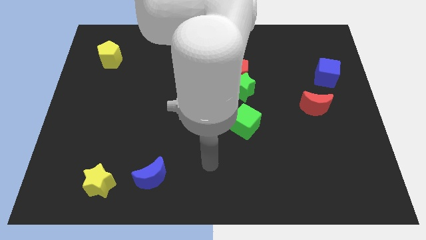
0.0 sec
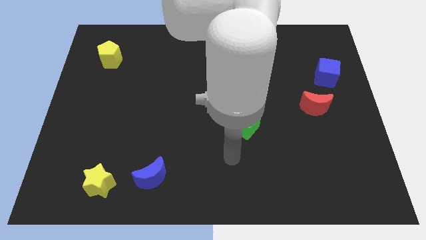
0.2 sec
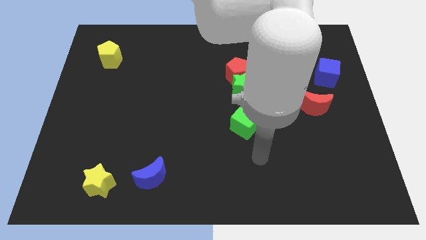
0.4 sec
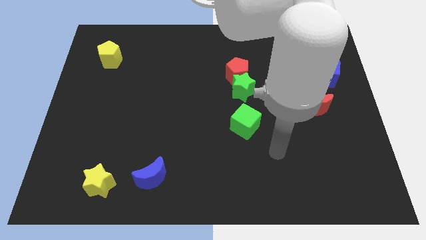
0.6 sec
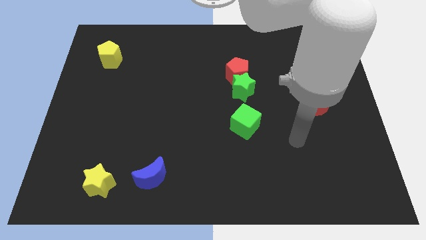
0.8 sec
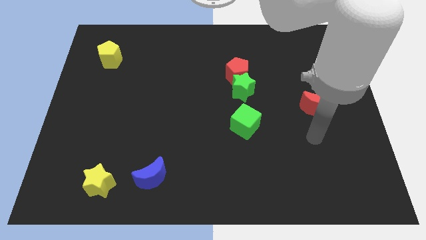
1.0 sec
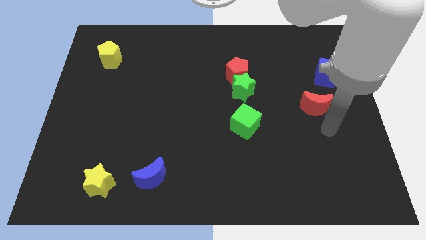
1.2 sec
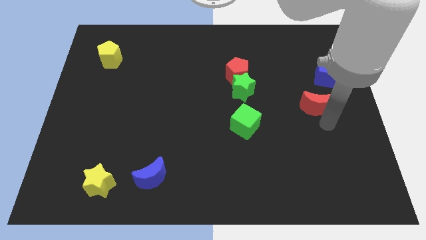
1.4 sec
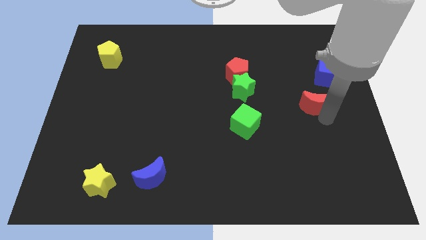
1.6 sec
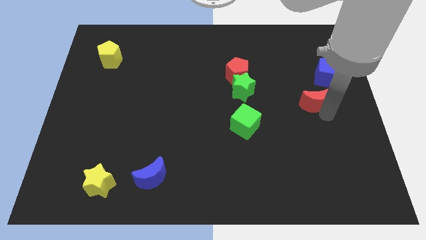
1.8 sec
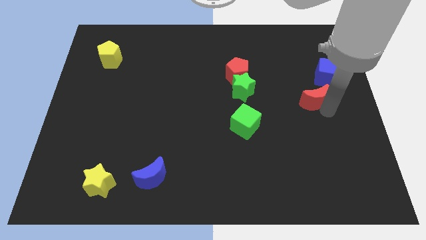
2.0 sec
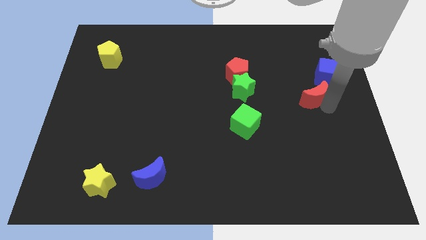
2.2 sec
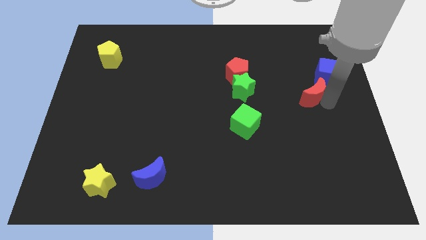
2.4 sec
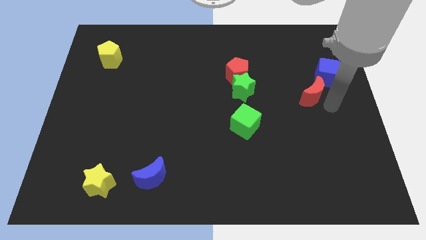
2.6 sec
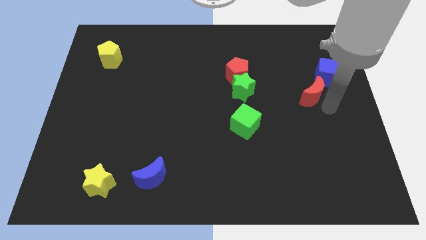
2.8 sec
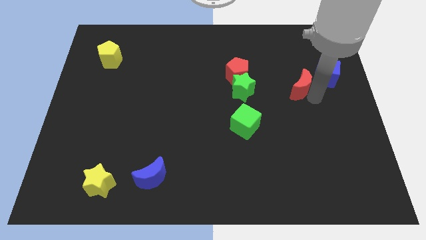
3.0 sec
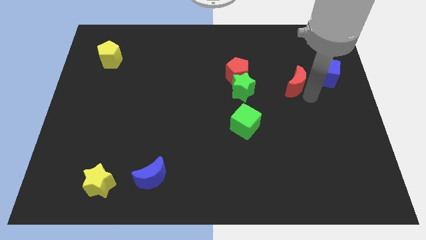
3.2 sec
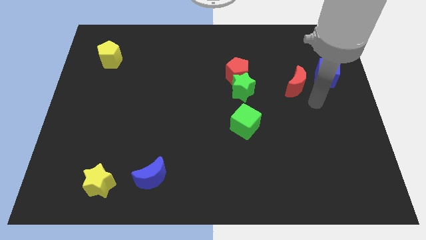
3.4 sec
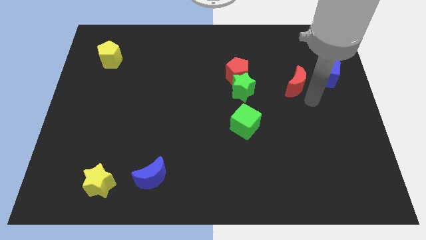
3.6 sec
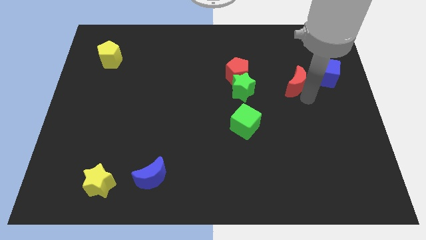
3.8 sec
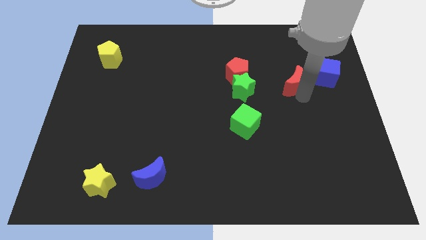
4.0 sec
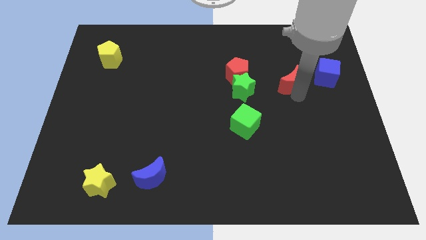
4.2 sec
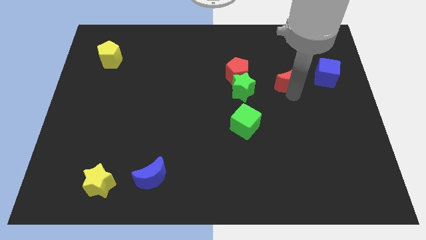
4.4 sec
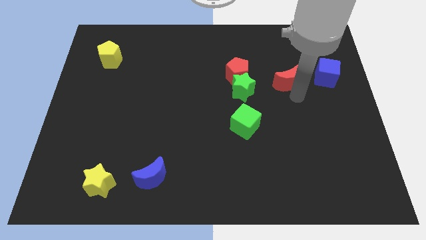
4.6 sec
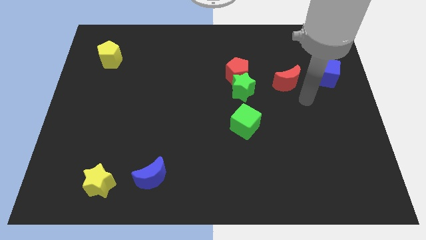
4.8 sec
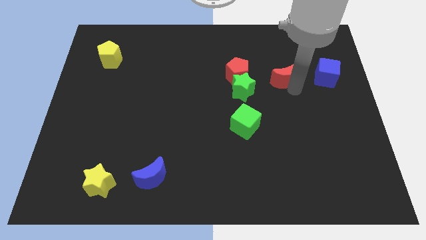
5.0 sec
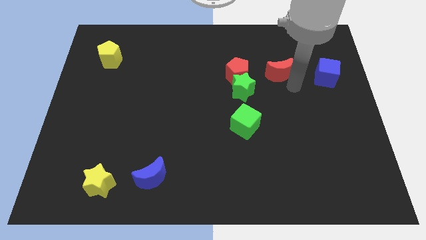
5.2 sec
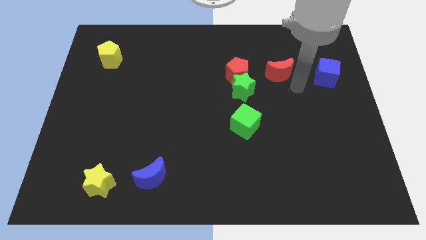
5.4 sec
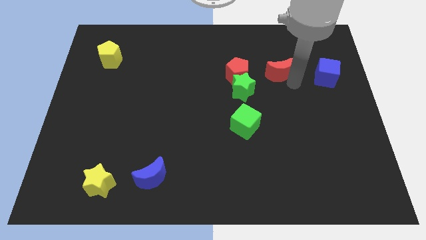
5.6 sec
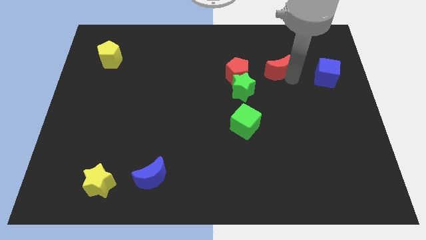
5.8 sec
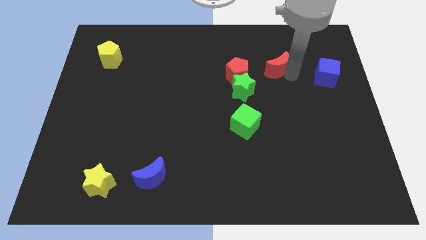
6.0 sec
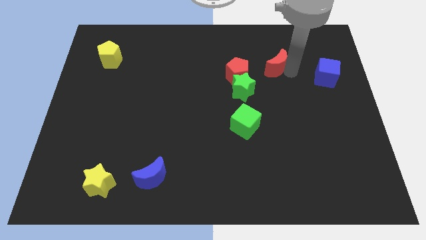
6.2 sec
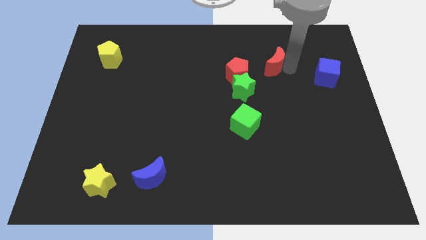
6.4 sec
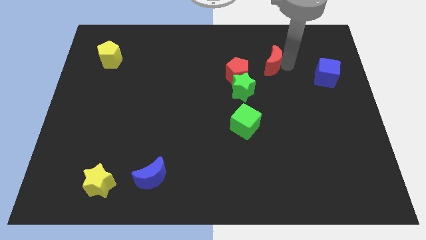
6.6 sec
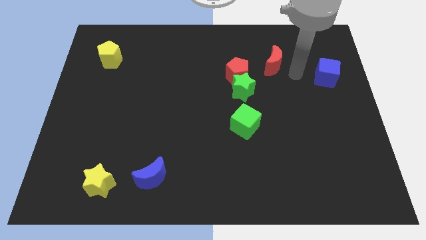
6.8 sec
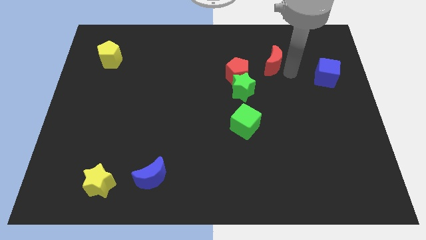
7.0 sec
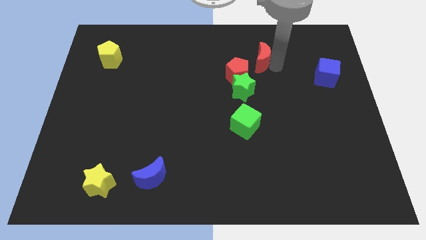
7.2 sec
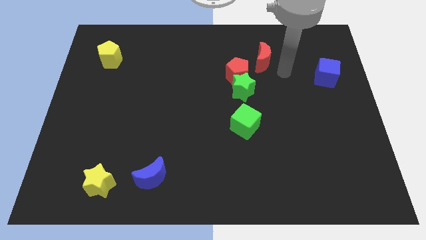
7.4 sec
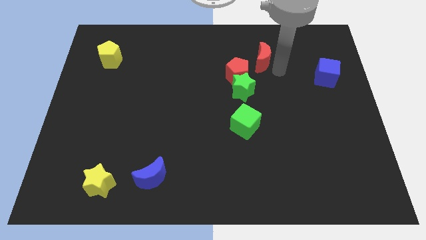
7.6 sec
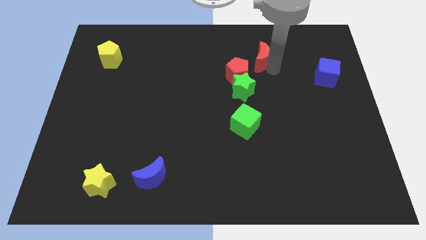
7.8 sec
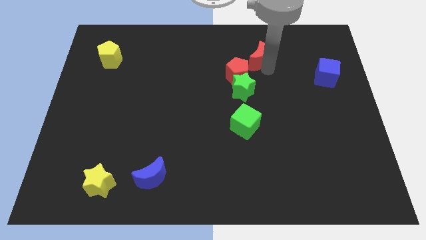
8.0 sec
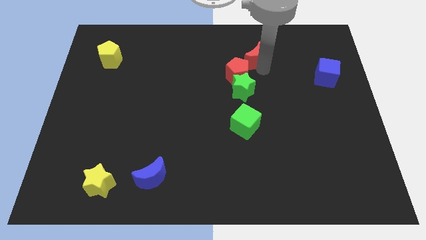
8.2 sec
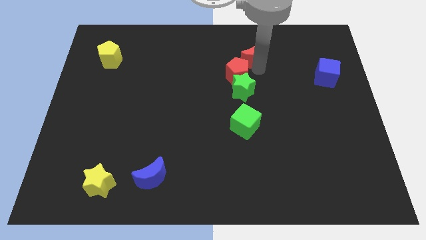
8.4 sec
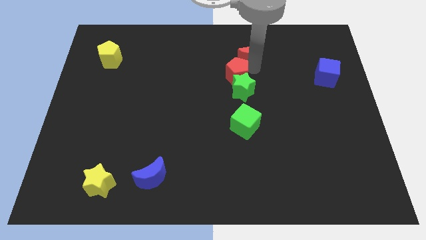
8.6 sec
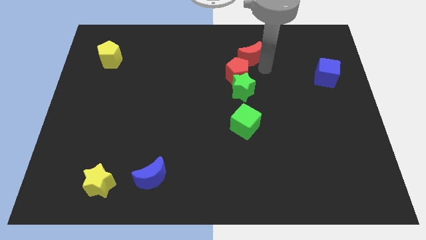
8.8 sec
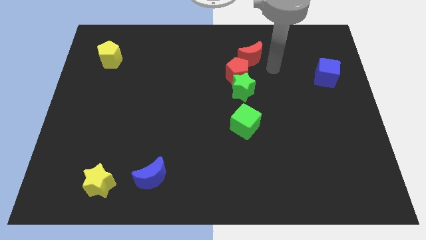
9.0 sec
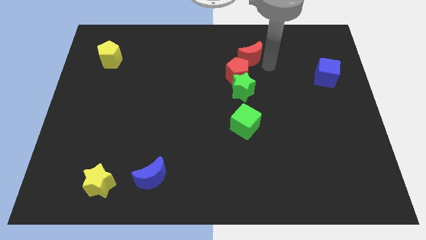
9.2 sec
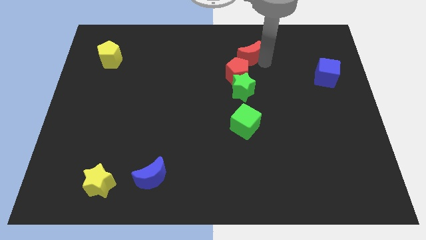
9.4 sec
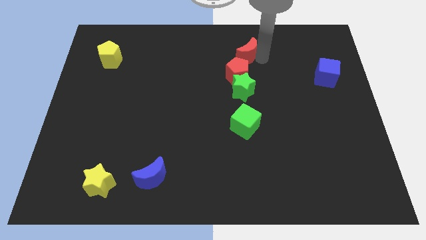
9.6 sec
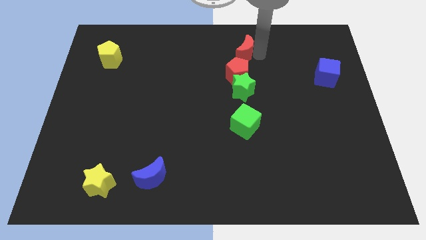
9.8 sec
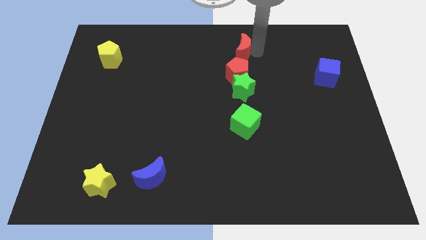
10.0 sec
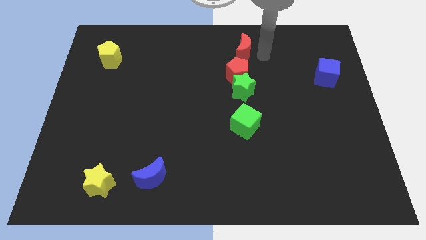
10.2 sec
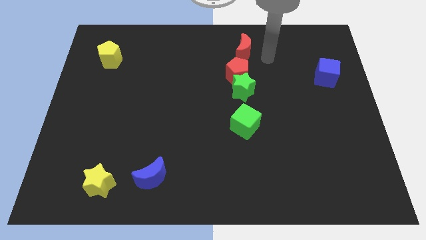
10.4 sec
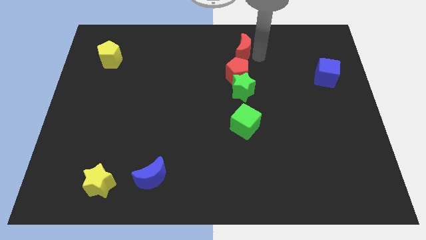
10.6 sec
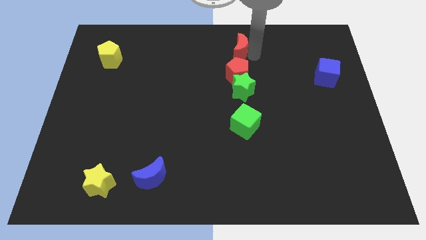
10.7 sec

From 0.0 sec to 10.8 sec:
put the red moon to the top

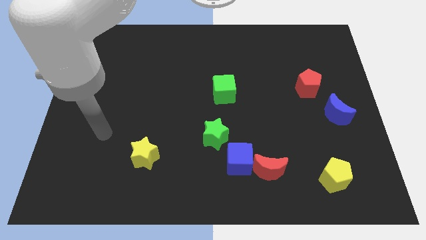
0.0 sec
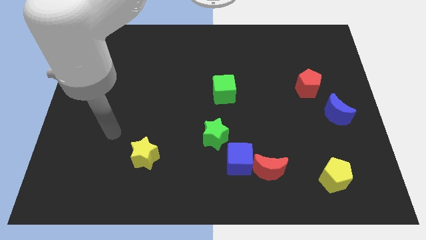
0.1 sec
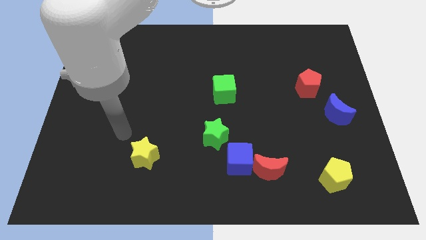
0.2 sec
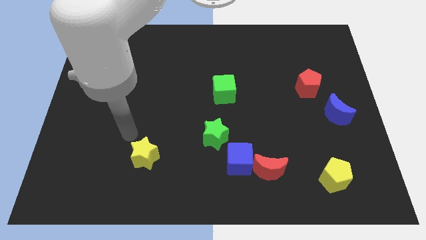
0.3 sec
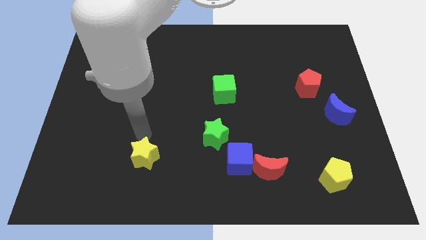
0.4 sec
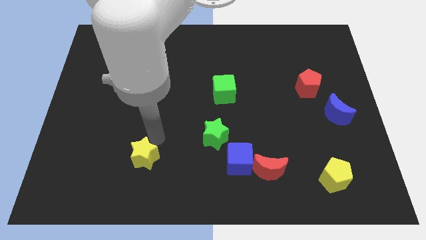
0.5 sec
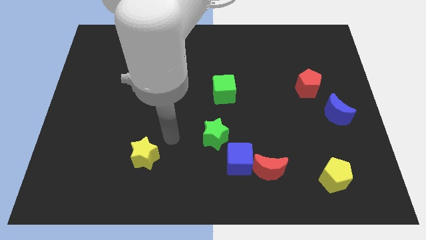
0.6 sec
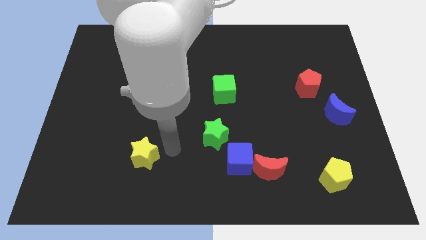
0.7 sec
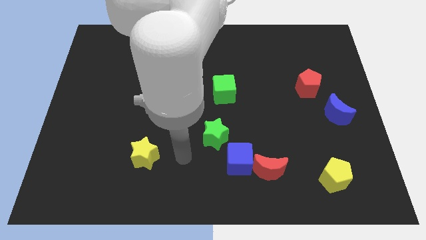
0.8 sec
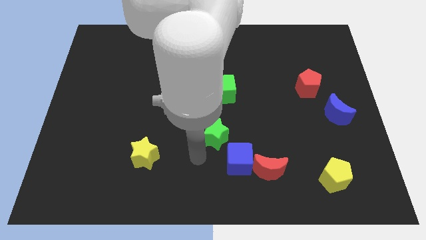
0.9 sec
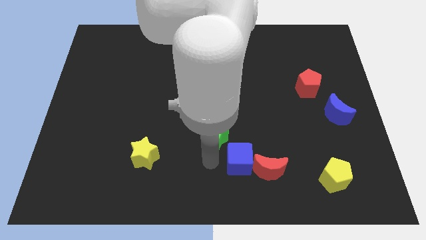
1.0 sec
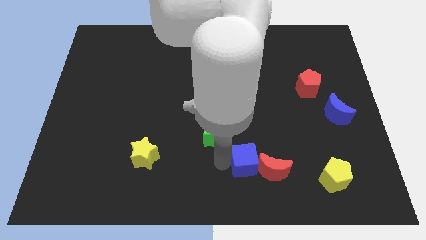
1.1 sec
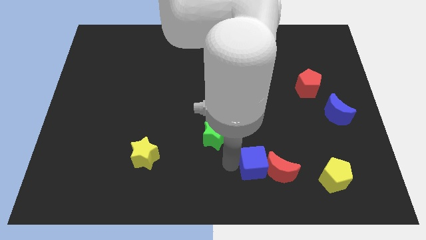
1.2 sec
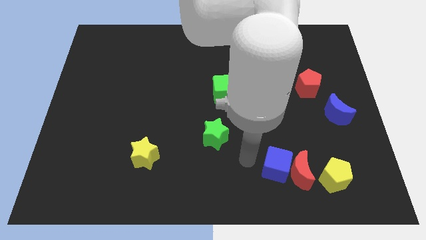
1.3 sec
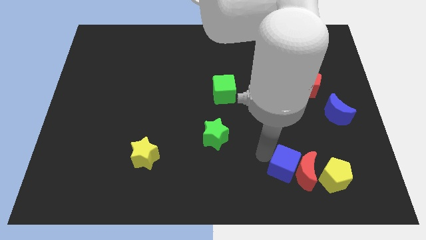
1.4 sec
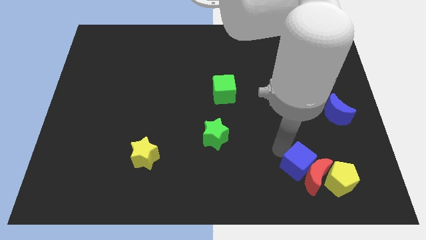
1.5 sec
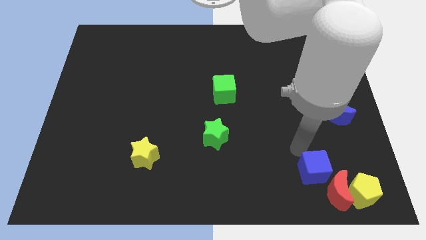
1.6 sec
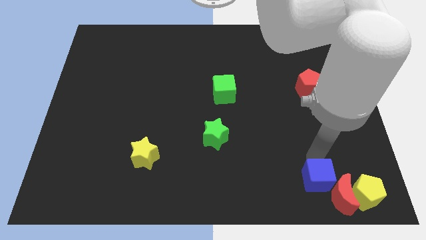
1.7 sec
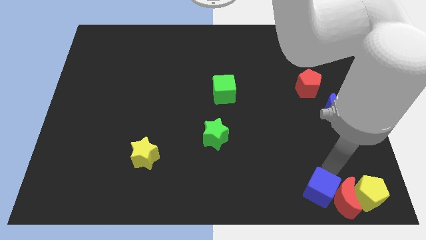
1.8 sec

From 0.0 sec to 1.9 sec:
move the red moon to the bottom right corner
